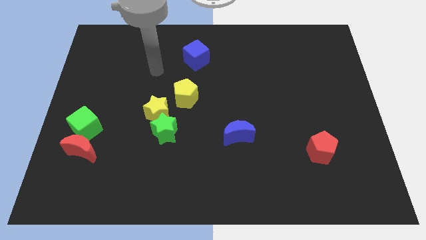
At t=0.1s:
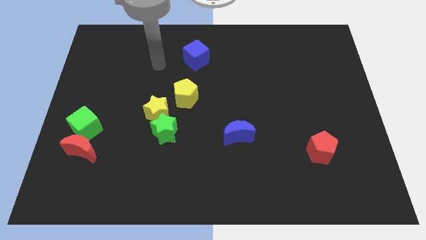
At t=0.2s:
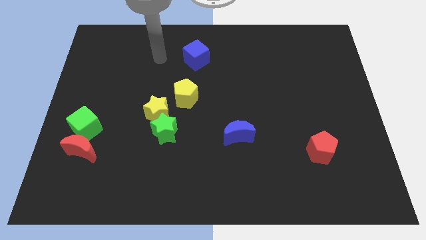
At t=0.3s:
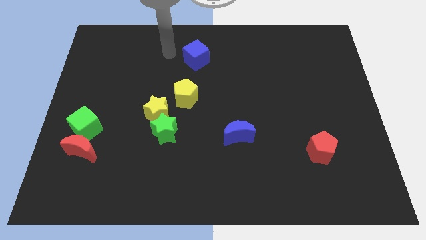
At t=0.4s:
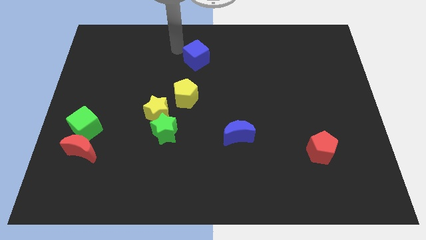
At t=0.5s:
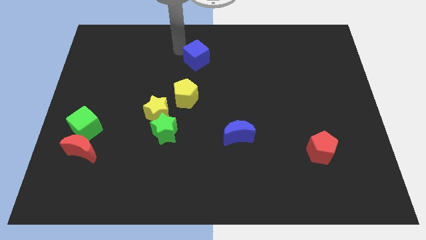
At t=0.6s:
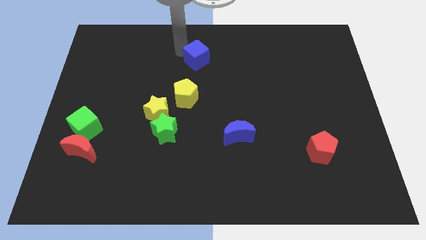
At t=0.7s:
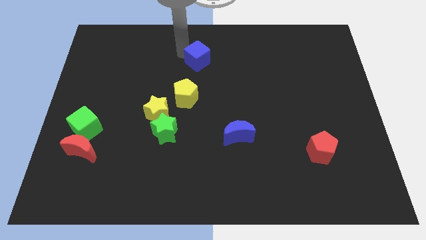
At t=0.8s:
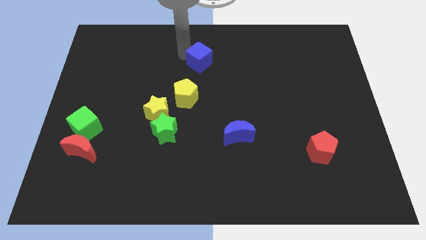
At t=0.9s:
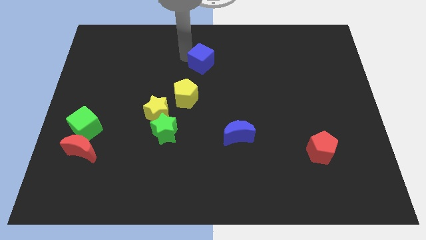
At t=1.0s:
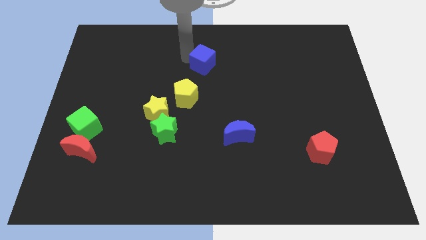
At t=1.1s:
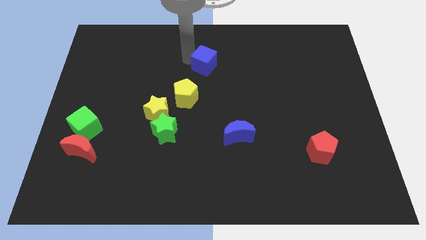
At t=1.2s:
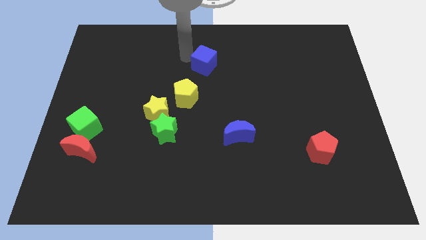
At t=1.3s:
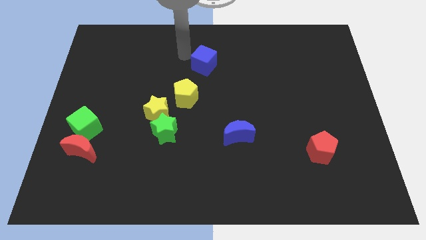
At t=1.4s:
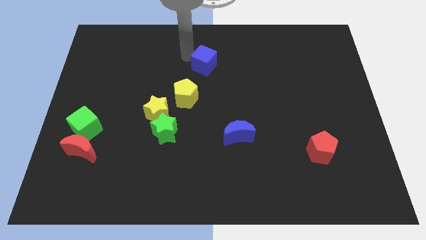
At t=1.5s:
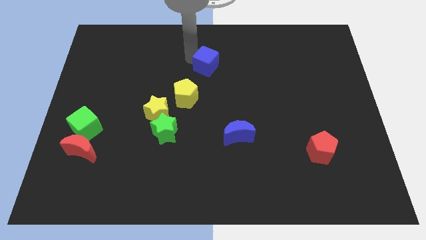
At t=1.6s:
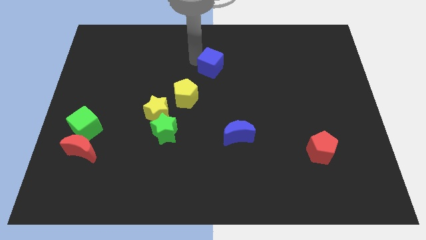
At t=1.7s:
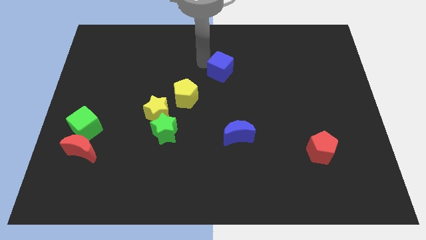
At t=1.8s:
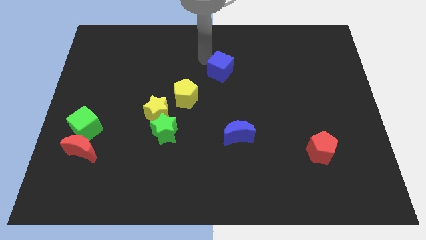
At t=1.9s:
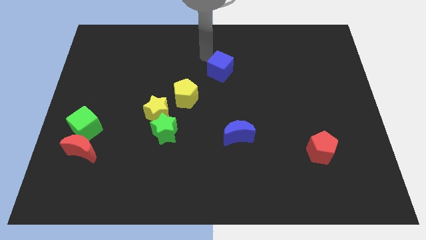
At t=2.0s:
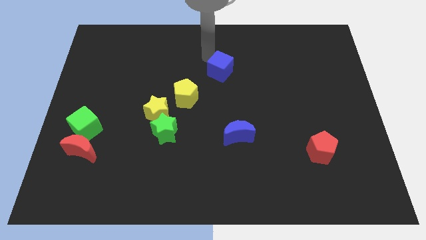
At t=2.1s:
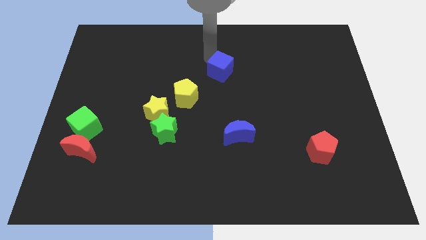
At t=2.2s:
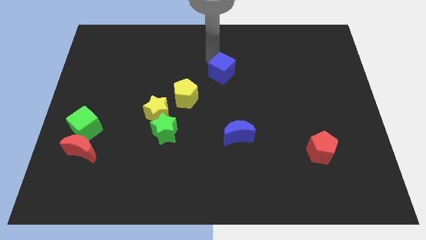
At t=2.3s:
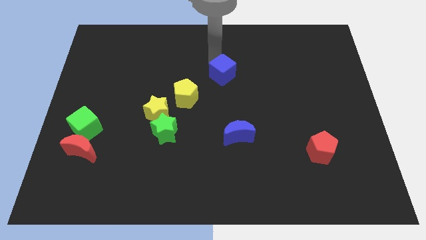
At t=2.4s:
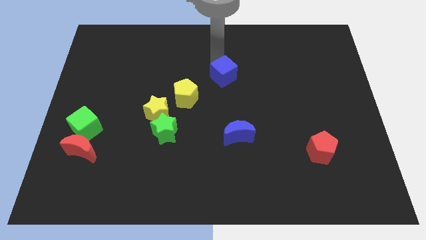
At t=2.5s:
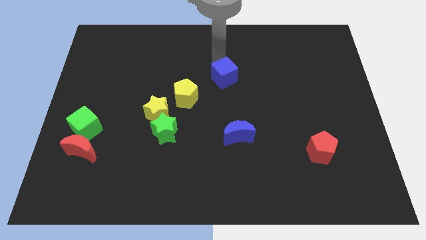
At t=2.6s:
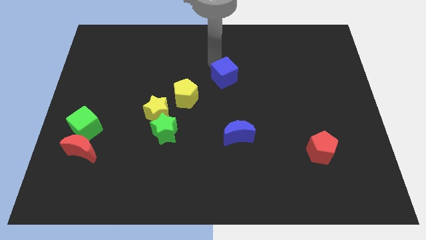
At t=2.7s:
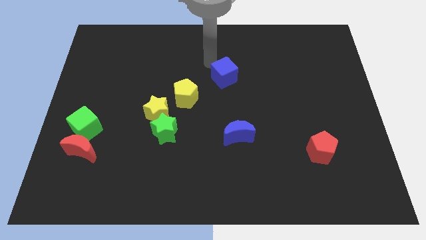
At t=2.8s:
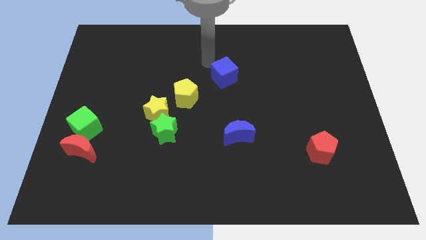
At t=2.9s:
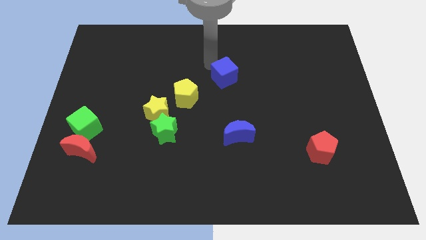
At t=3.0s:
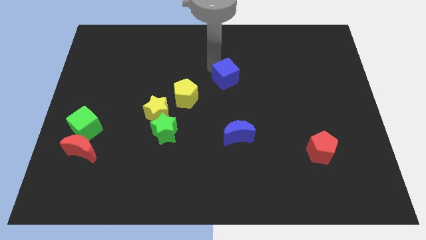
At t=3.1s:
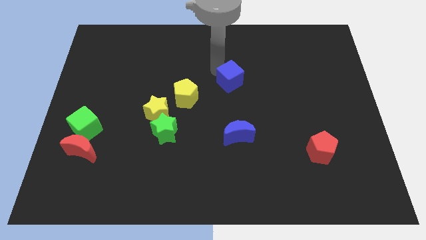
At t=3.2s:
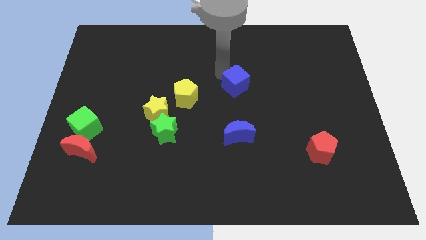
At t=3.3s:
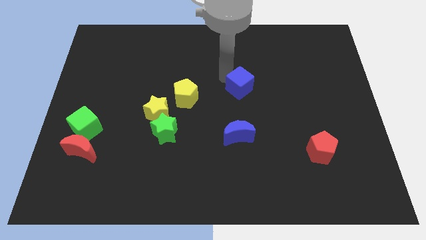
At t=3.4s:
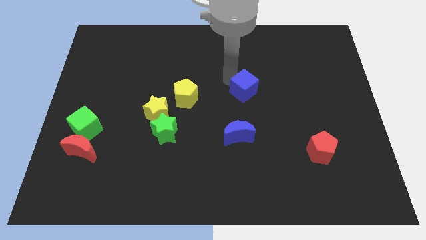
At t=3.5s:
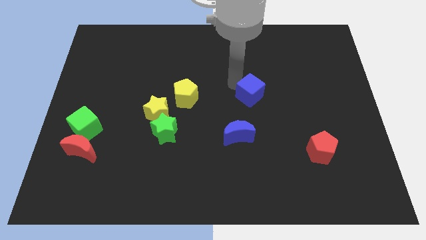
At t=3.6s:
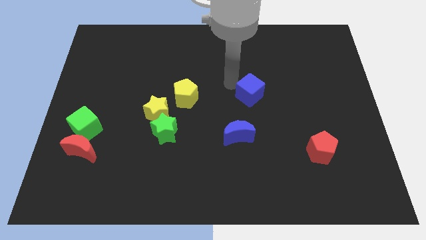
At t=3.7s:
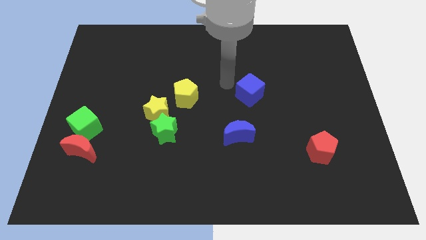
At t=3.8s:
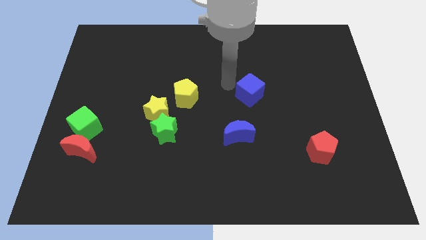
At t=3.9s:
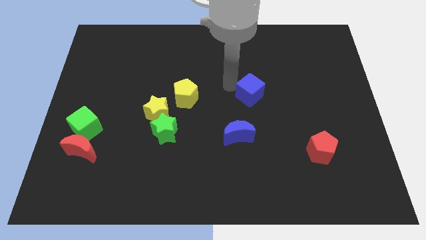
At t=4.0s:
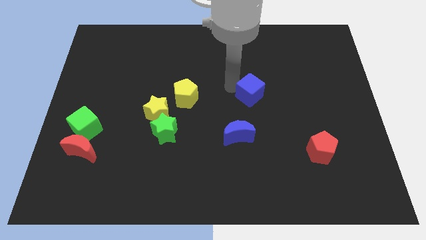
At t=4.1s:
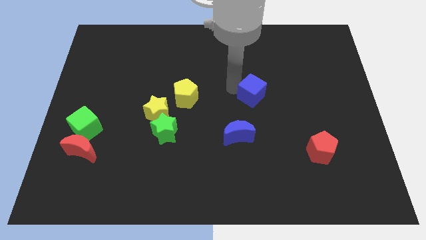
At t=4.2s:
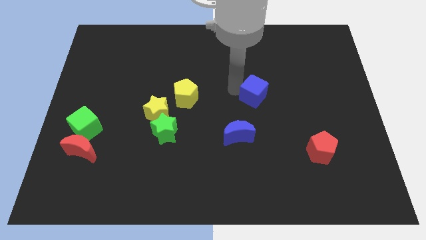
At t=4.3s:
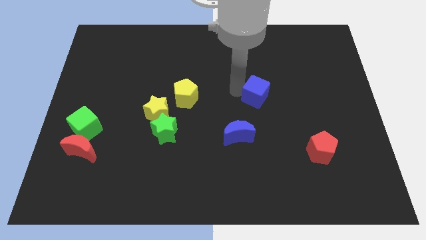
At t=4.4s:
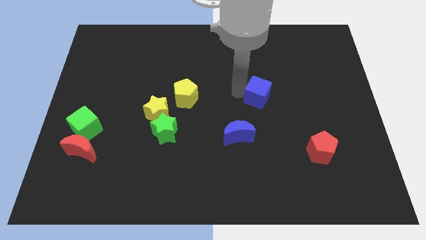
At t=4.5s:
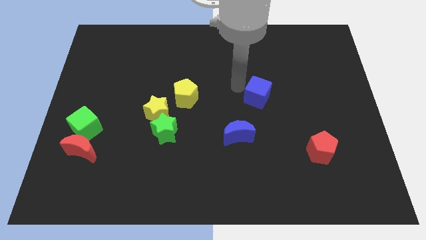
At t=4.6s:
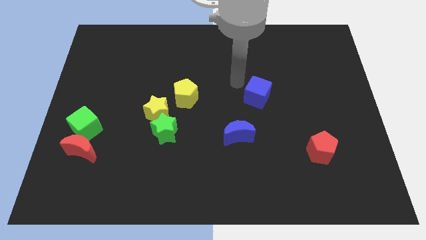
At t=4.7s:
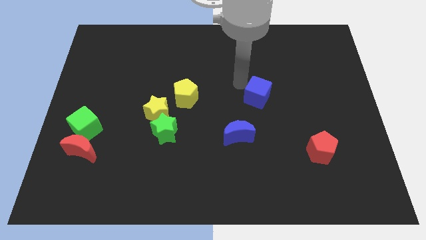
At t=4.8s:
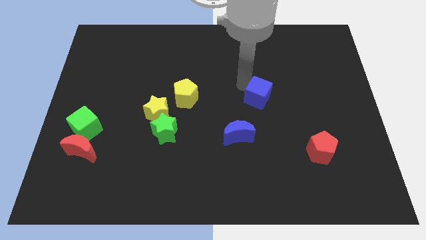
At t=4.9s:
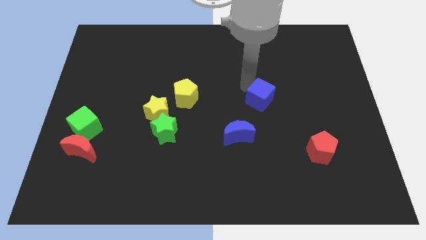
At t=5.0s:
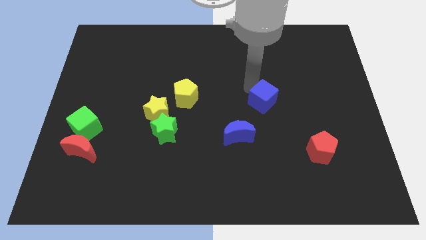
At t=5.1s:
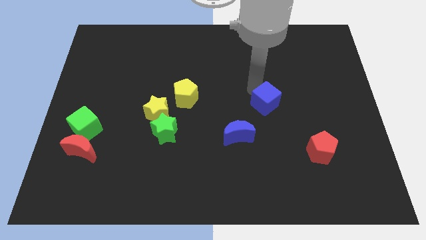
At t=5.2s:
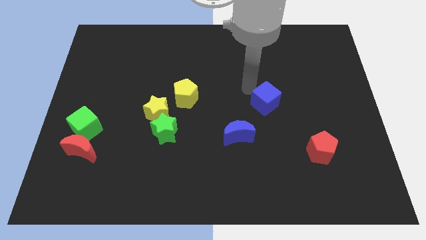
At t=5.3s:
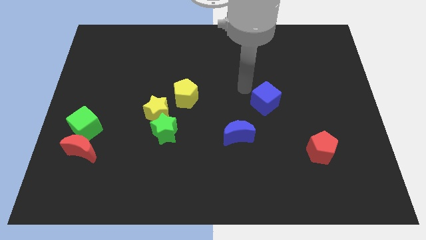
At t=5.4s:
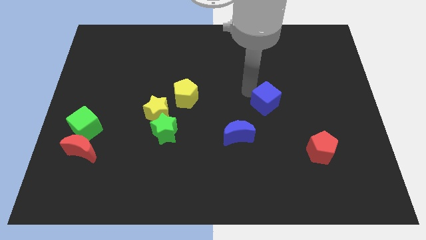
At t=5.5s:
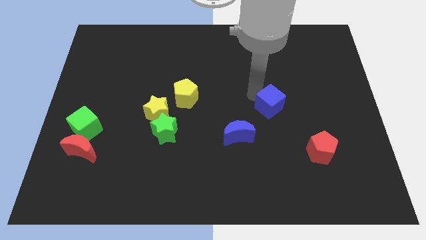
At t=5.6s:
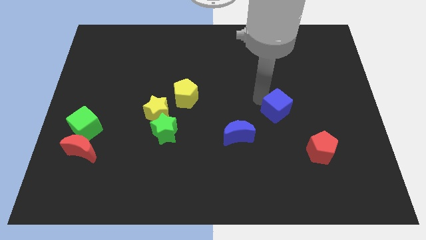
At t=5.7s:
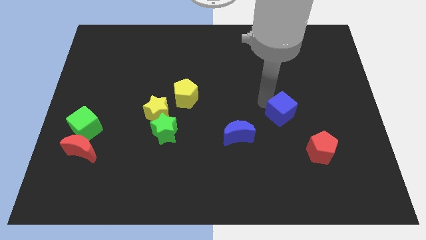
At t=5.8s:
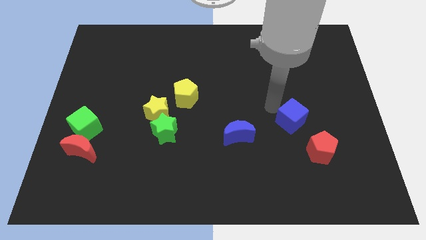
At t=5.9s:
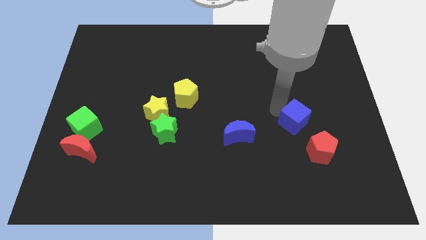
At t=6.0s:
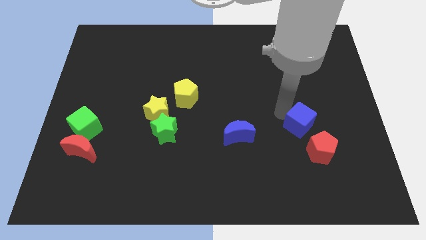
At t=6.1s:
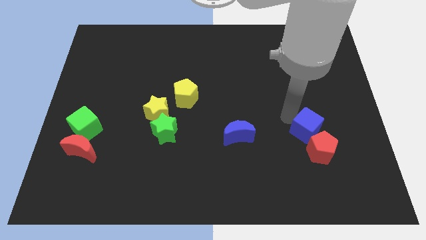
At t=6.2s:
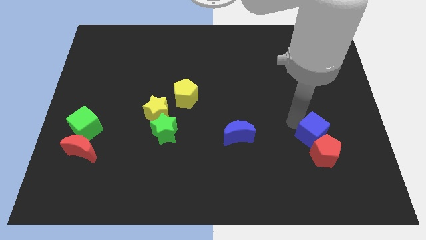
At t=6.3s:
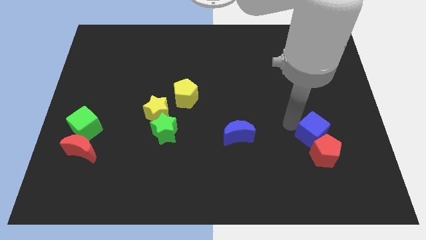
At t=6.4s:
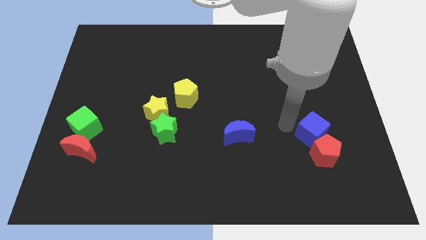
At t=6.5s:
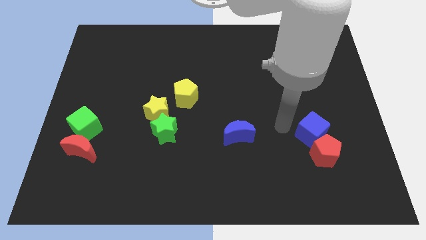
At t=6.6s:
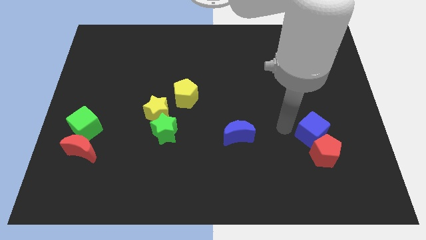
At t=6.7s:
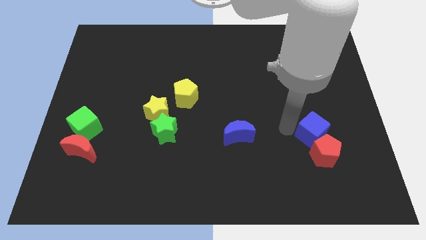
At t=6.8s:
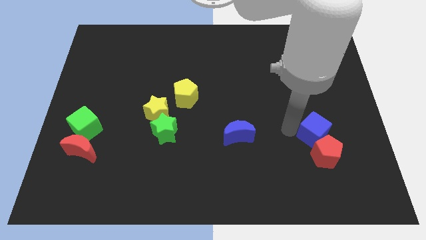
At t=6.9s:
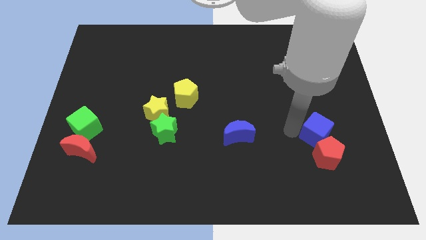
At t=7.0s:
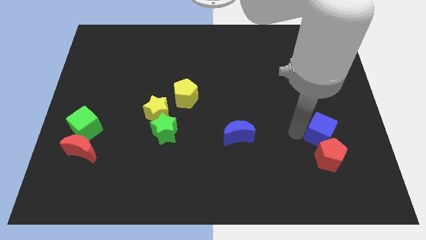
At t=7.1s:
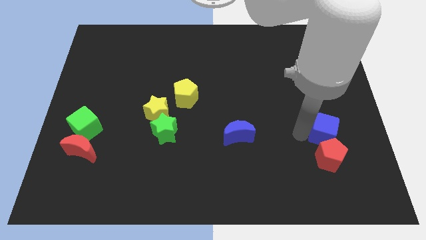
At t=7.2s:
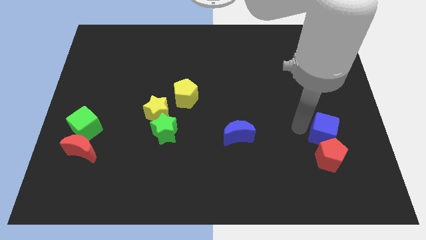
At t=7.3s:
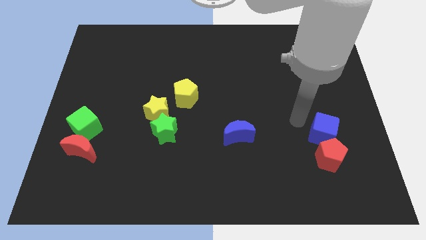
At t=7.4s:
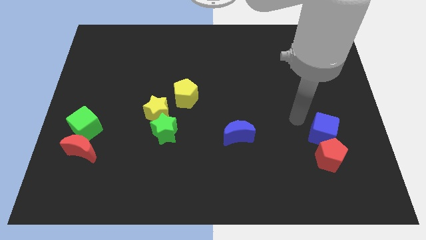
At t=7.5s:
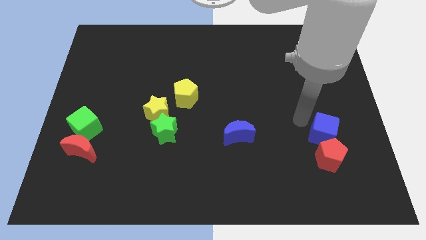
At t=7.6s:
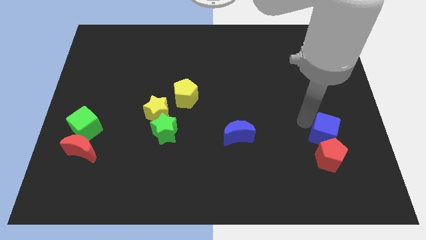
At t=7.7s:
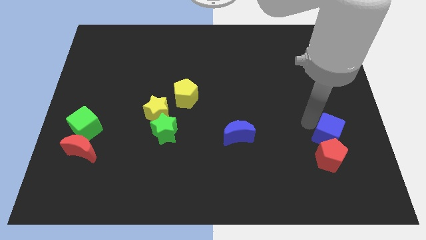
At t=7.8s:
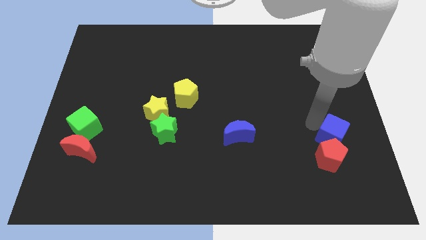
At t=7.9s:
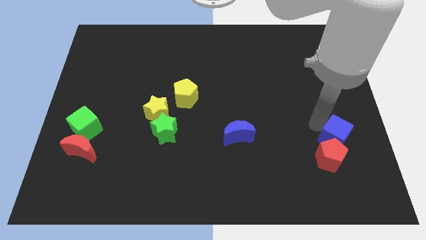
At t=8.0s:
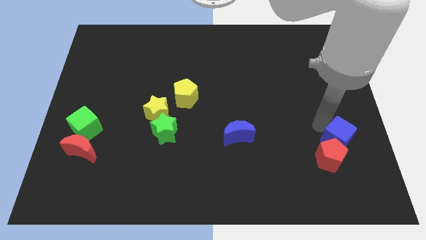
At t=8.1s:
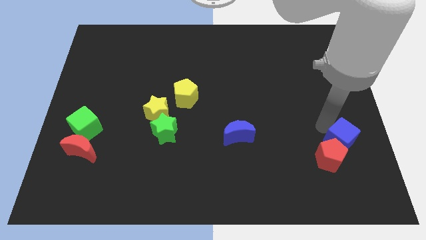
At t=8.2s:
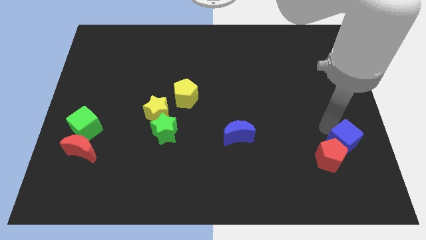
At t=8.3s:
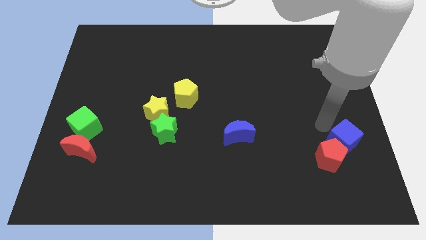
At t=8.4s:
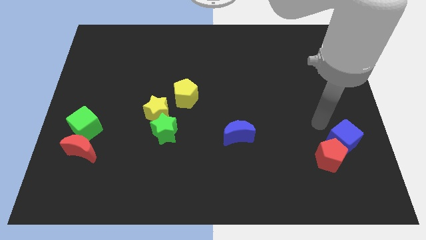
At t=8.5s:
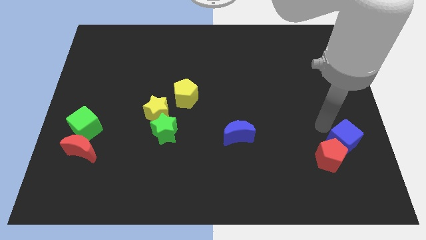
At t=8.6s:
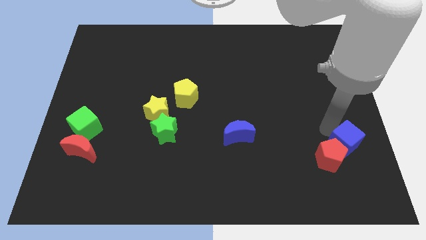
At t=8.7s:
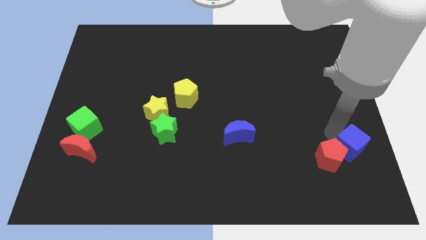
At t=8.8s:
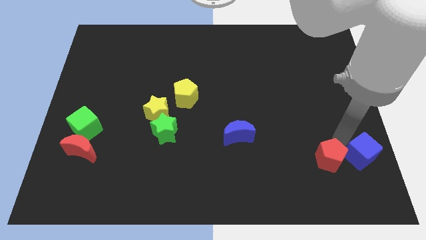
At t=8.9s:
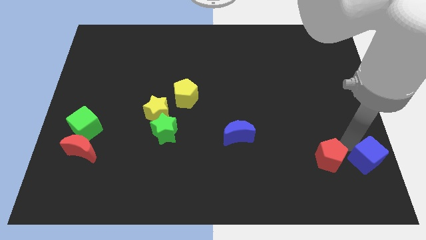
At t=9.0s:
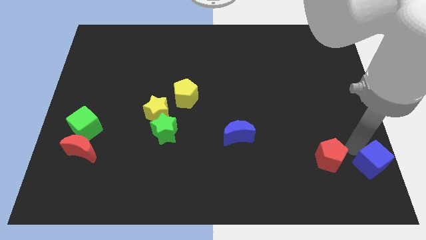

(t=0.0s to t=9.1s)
push the blue cube to the bottom right corner
